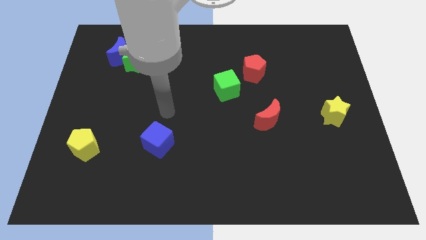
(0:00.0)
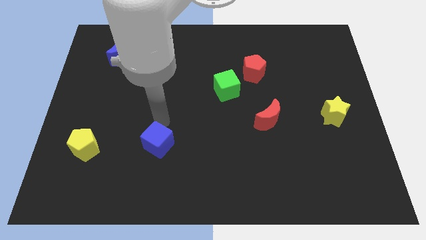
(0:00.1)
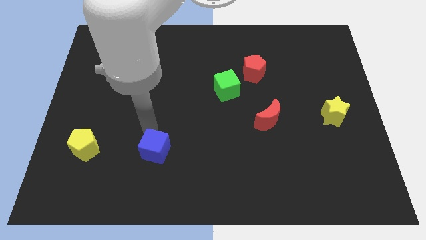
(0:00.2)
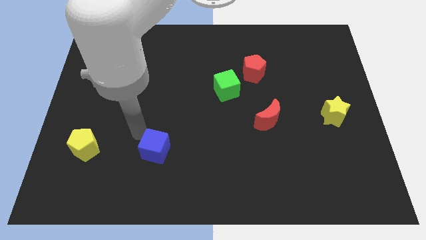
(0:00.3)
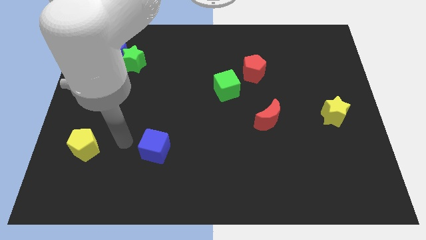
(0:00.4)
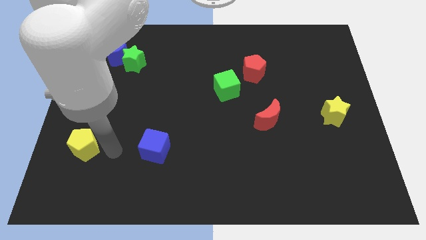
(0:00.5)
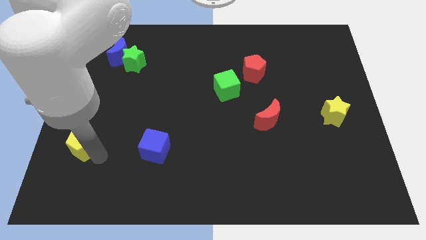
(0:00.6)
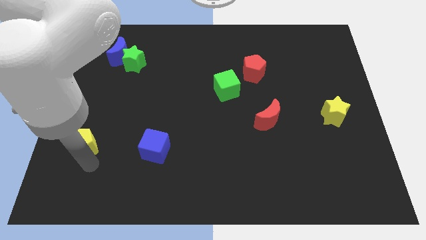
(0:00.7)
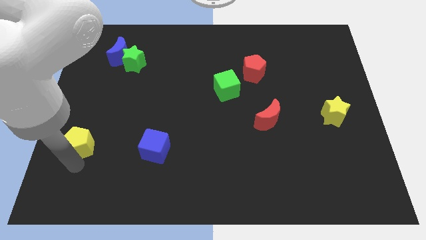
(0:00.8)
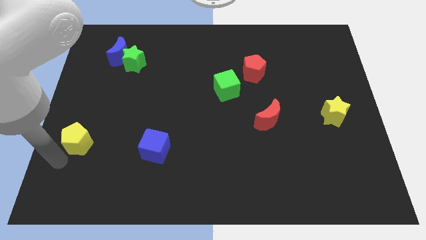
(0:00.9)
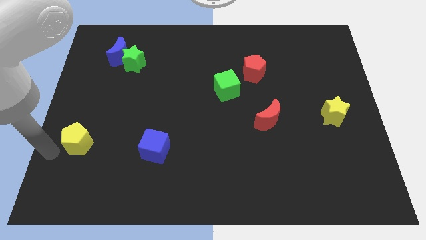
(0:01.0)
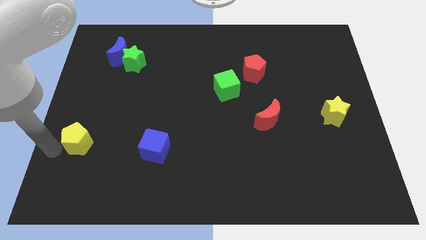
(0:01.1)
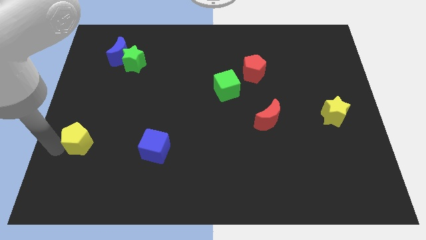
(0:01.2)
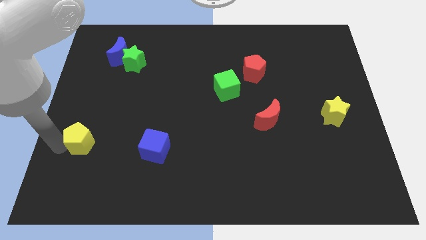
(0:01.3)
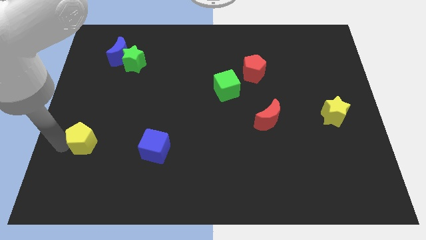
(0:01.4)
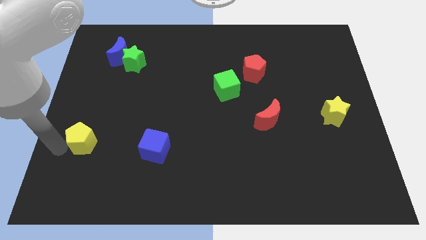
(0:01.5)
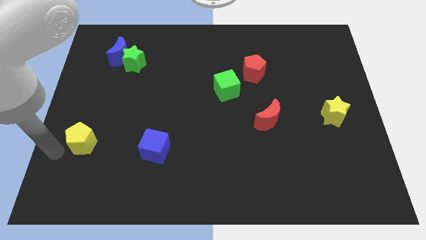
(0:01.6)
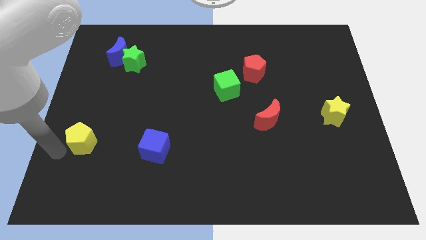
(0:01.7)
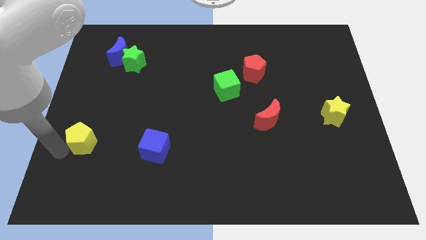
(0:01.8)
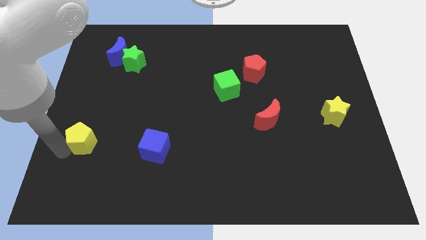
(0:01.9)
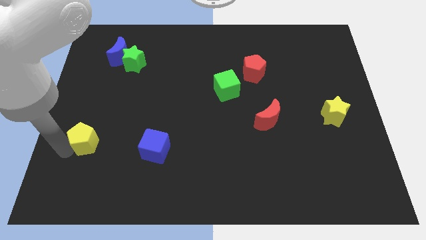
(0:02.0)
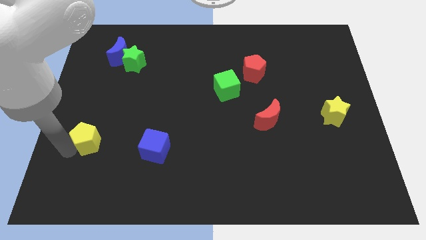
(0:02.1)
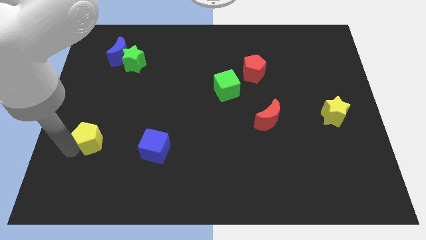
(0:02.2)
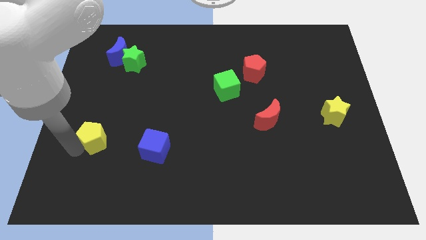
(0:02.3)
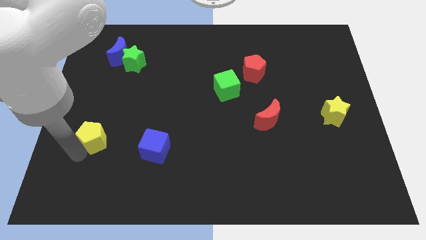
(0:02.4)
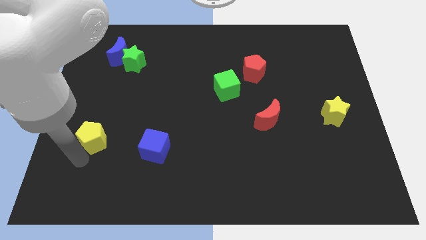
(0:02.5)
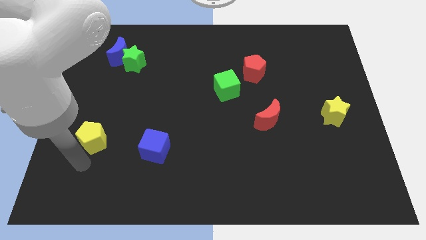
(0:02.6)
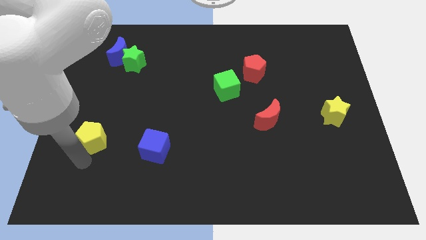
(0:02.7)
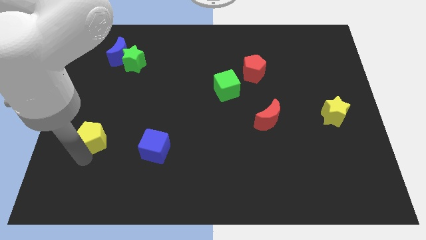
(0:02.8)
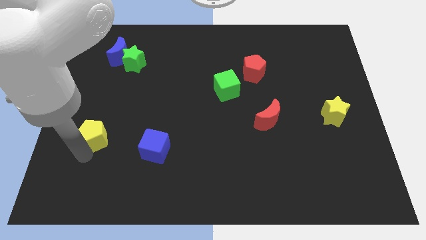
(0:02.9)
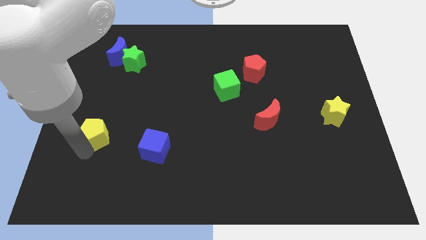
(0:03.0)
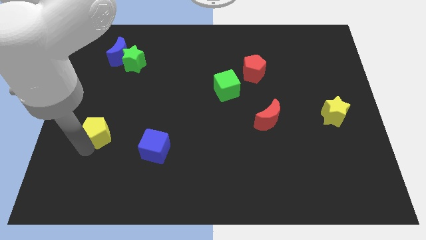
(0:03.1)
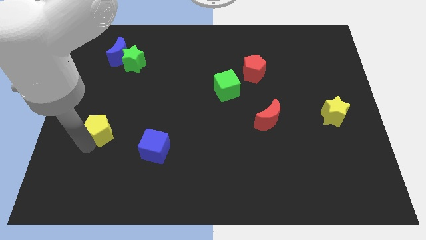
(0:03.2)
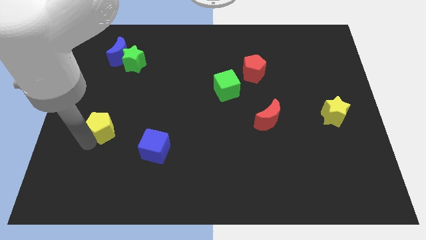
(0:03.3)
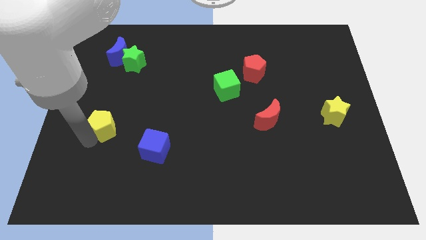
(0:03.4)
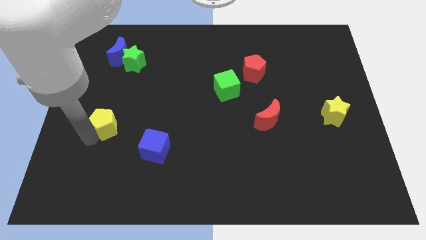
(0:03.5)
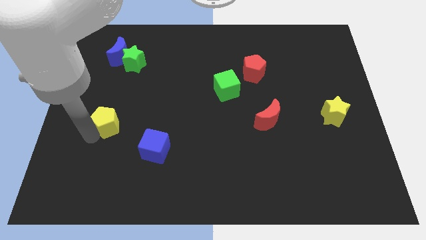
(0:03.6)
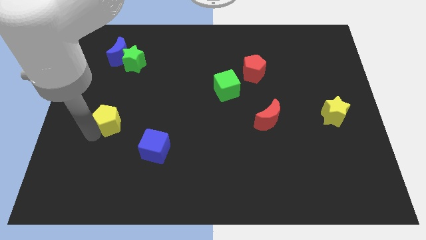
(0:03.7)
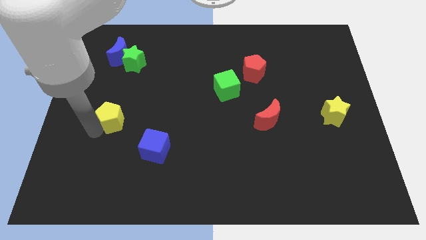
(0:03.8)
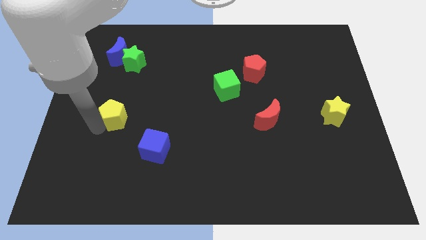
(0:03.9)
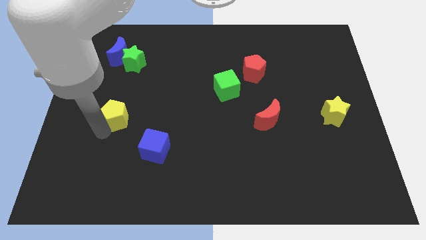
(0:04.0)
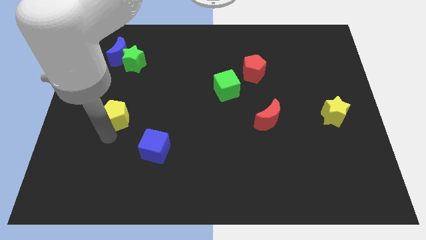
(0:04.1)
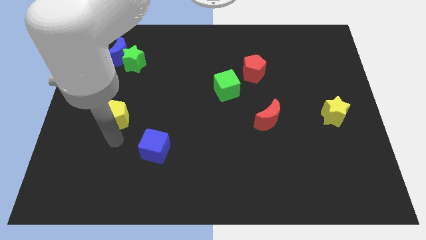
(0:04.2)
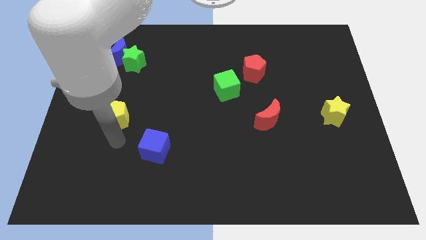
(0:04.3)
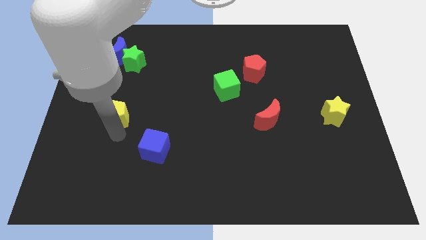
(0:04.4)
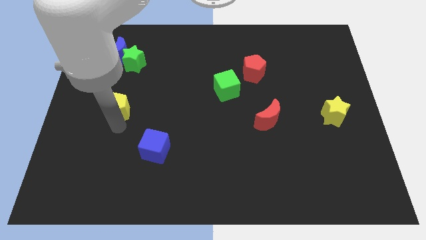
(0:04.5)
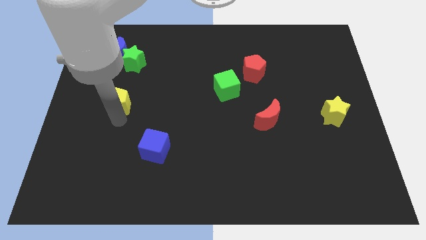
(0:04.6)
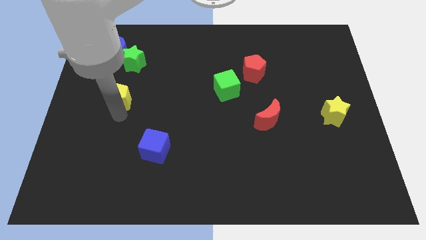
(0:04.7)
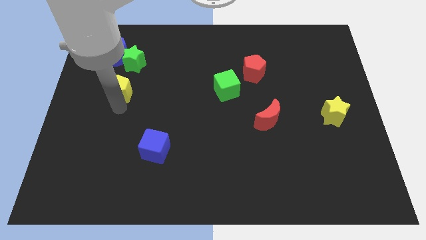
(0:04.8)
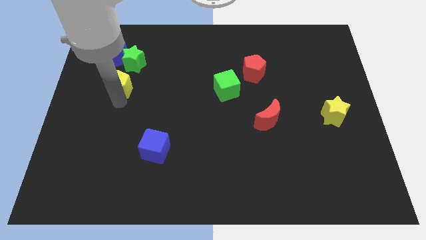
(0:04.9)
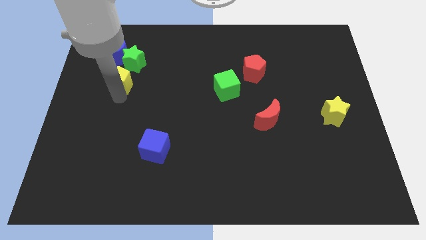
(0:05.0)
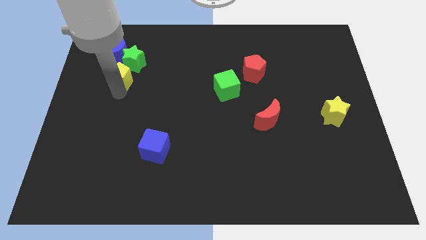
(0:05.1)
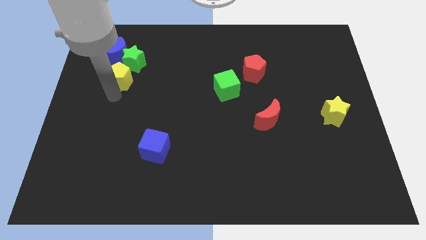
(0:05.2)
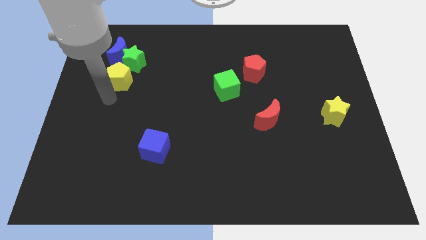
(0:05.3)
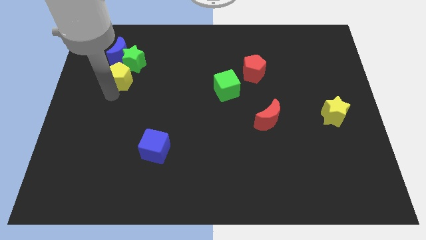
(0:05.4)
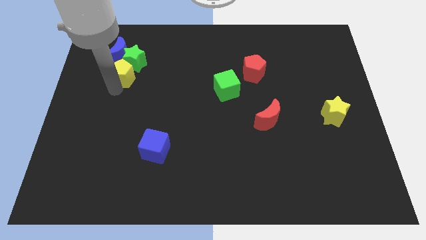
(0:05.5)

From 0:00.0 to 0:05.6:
slide the yellow pentagon close to the green star

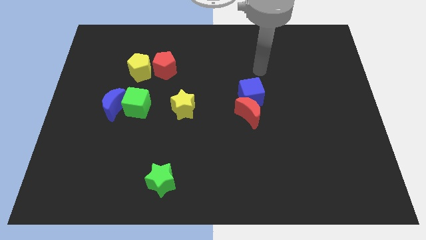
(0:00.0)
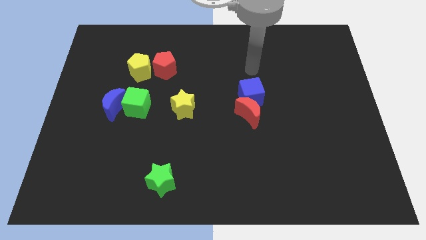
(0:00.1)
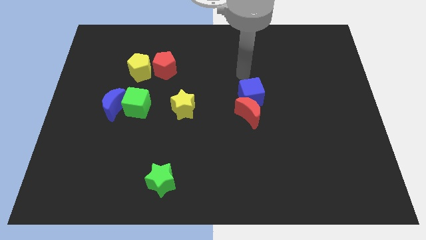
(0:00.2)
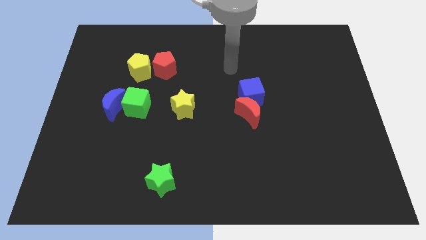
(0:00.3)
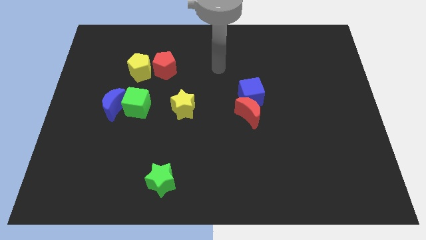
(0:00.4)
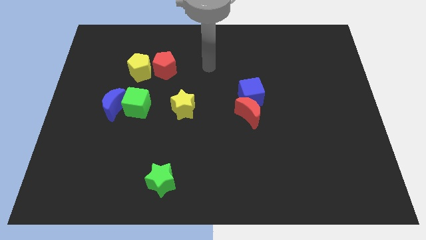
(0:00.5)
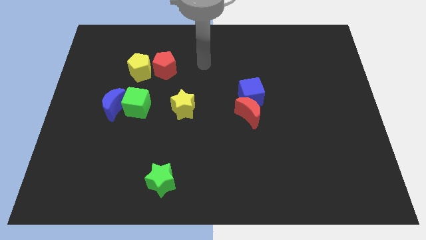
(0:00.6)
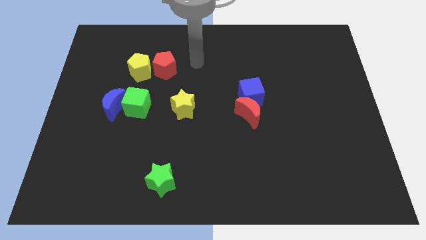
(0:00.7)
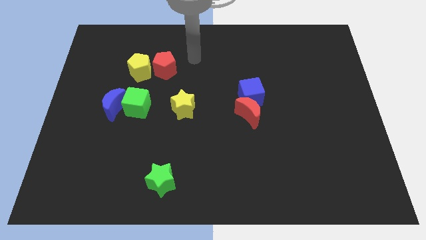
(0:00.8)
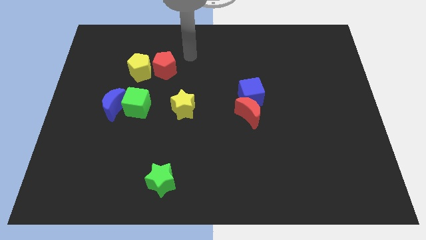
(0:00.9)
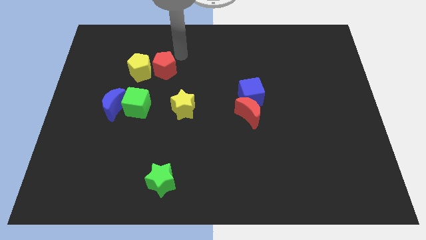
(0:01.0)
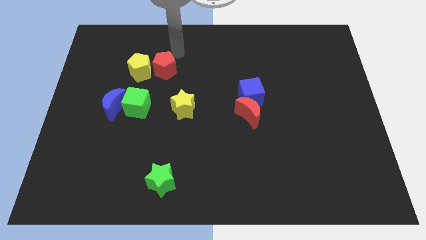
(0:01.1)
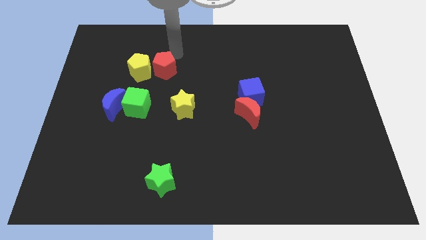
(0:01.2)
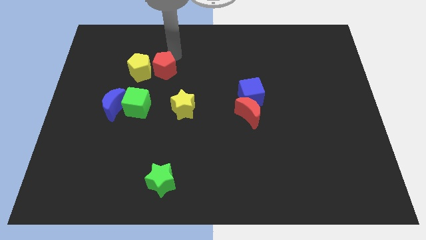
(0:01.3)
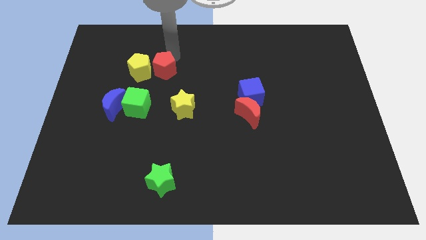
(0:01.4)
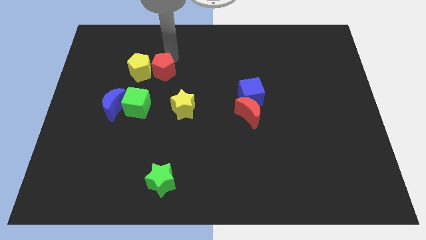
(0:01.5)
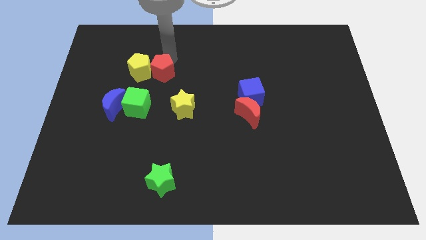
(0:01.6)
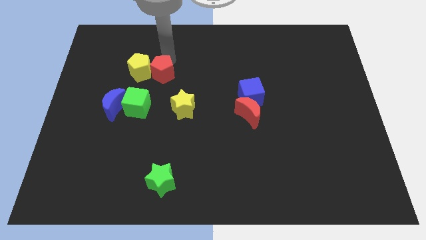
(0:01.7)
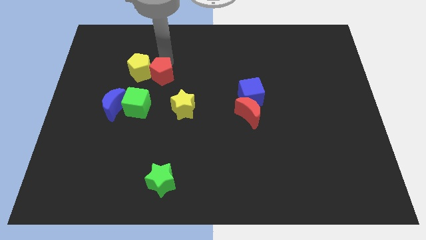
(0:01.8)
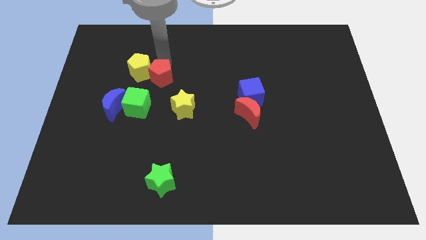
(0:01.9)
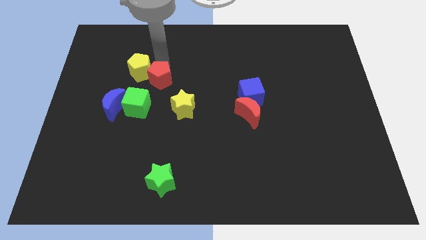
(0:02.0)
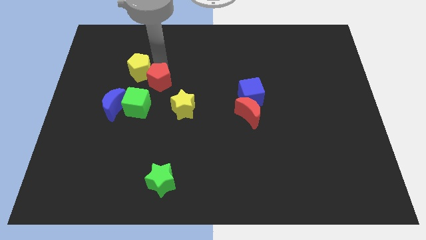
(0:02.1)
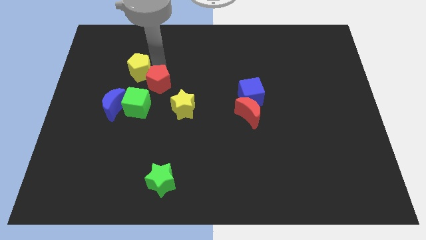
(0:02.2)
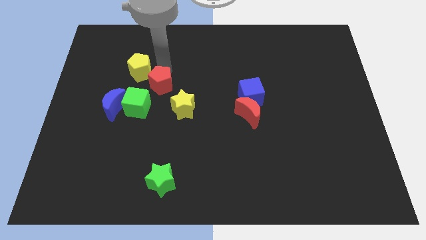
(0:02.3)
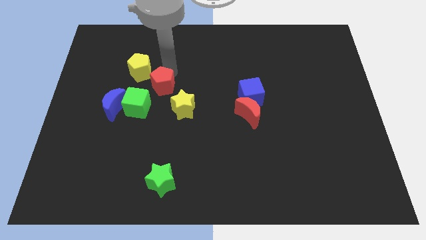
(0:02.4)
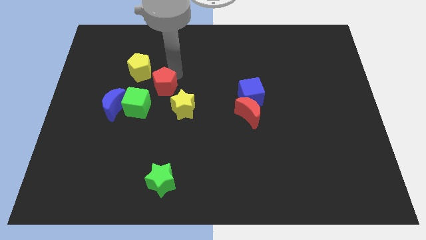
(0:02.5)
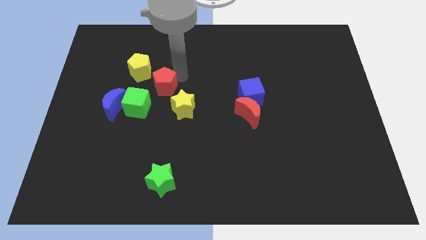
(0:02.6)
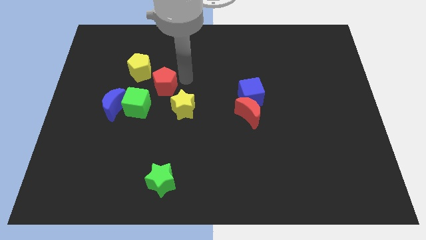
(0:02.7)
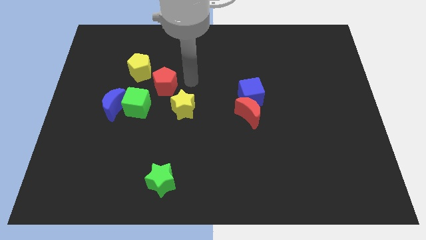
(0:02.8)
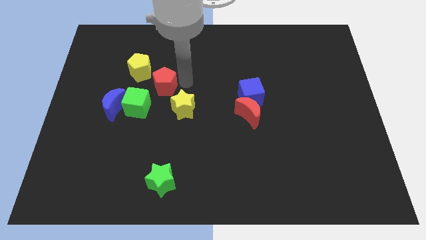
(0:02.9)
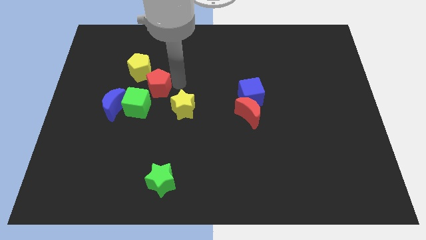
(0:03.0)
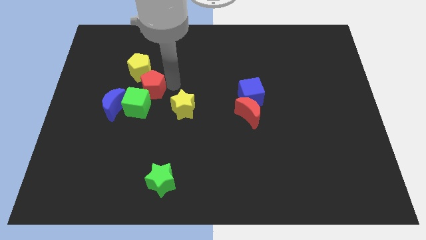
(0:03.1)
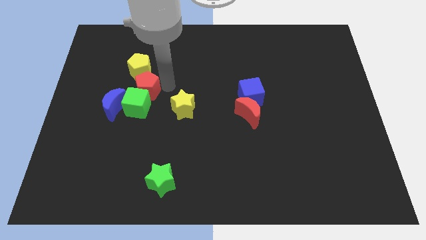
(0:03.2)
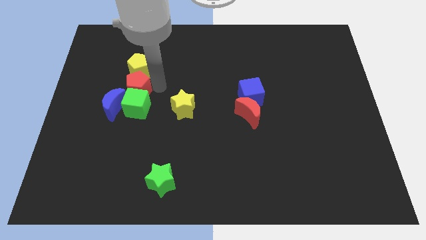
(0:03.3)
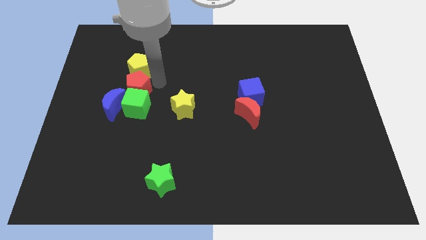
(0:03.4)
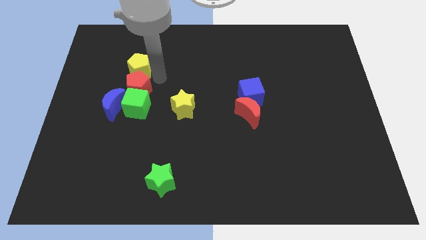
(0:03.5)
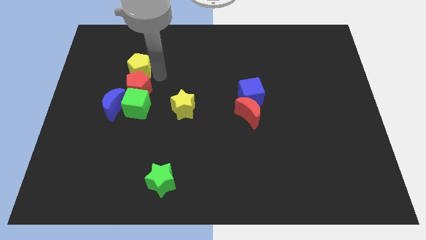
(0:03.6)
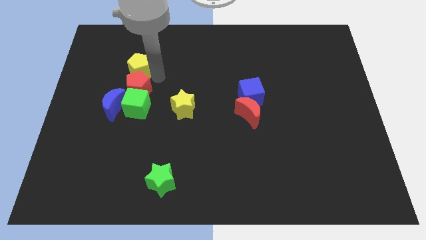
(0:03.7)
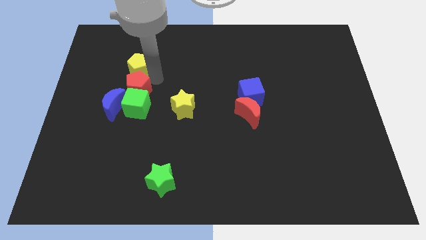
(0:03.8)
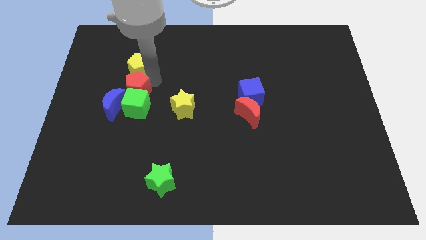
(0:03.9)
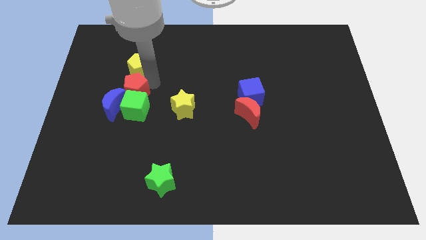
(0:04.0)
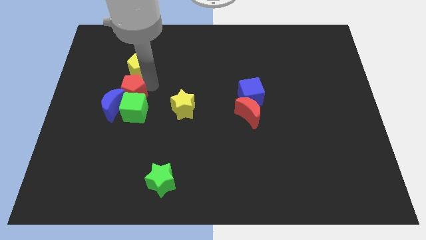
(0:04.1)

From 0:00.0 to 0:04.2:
slide the red pentagon to the blue moon
